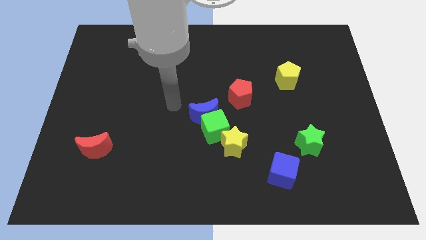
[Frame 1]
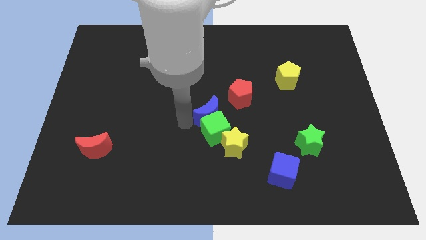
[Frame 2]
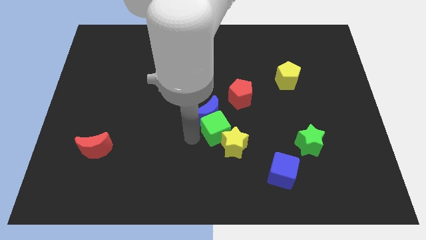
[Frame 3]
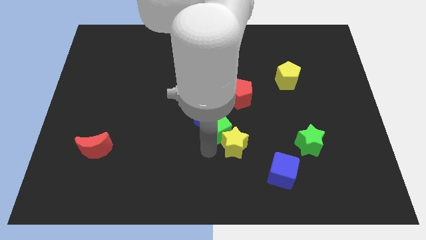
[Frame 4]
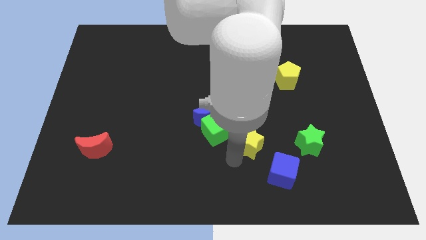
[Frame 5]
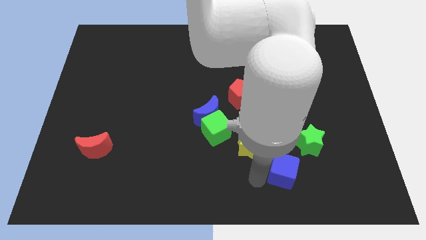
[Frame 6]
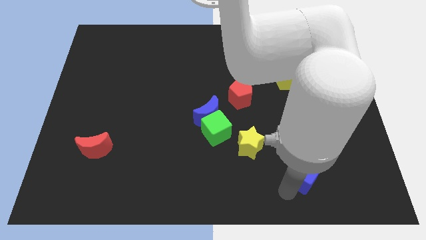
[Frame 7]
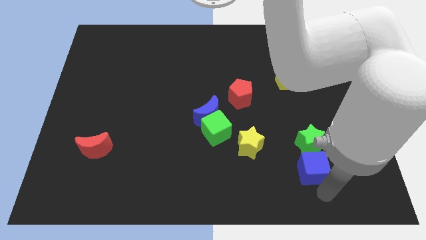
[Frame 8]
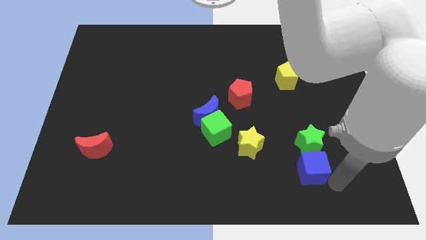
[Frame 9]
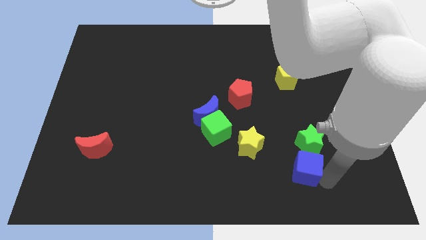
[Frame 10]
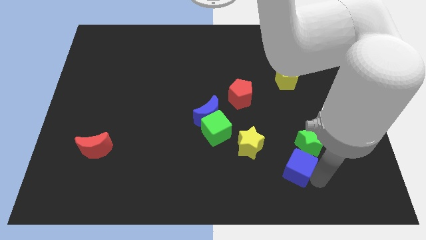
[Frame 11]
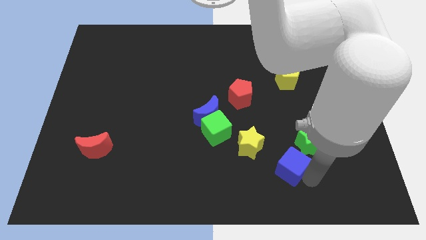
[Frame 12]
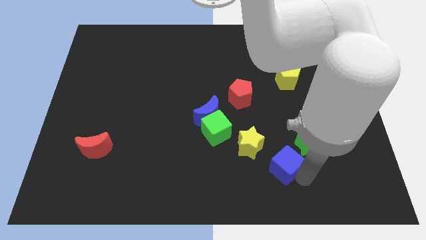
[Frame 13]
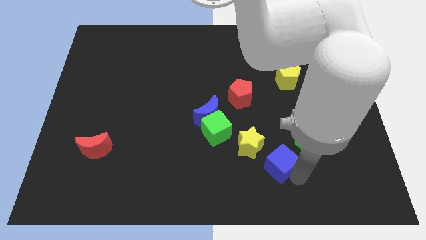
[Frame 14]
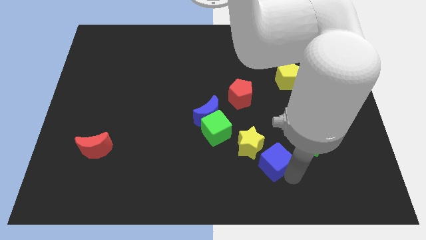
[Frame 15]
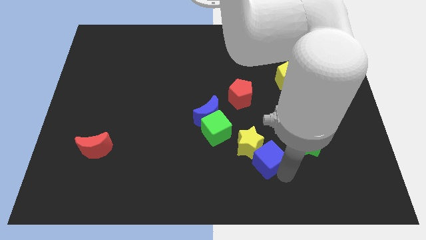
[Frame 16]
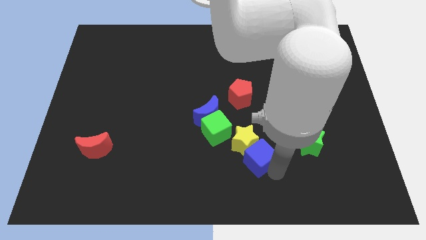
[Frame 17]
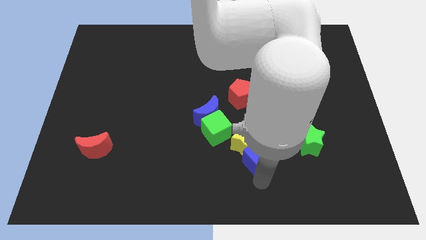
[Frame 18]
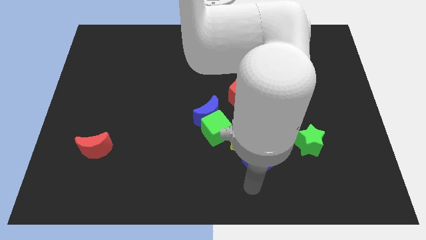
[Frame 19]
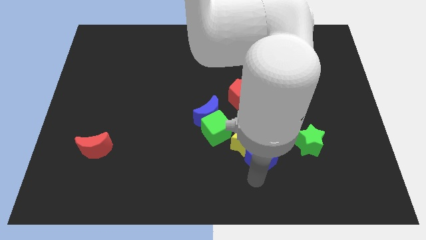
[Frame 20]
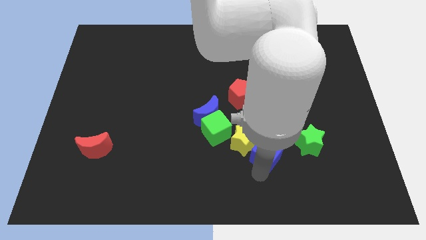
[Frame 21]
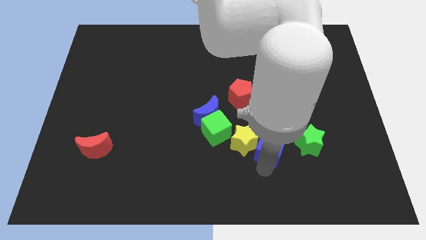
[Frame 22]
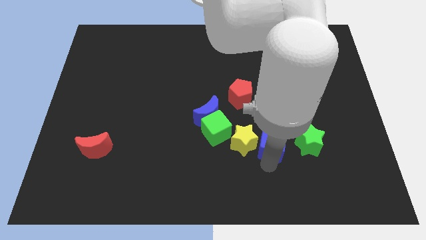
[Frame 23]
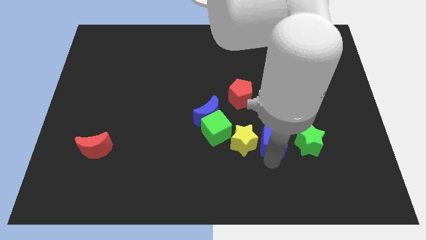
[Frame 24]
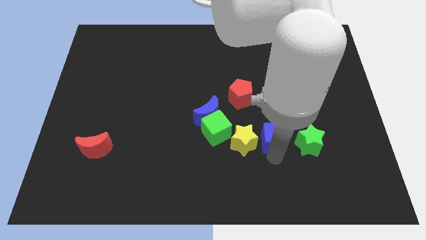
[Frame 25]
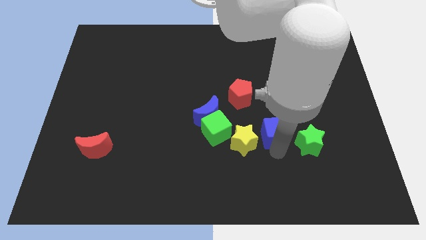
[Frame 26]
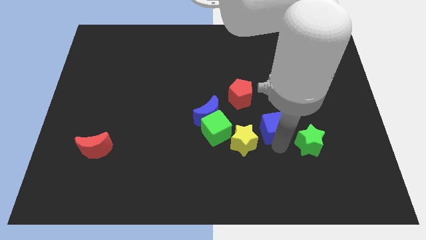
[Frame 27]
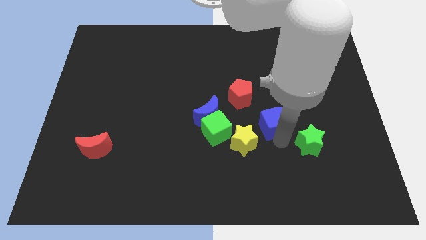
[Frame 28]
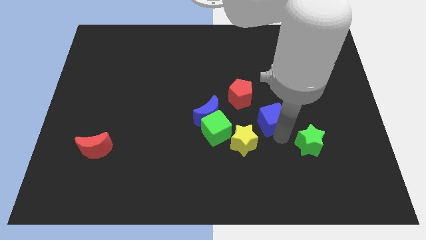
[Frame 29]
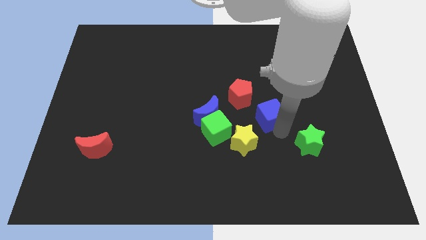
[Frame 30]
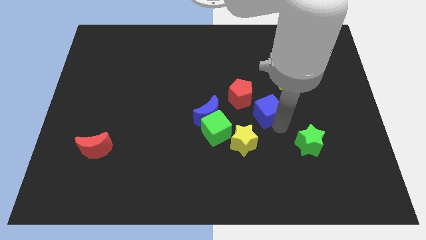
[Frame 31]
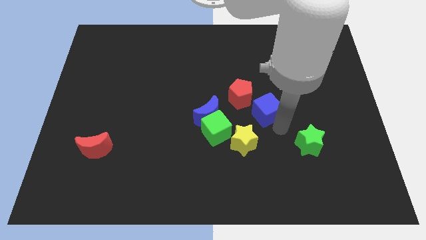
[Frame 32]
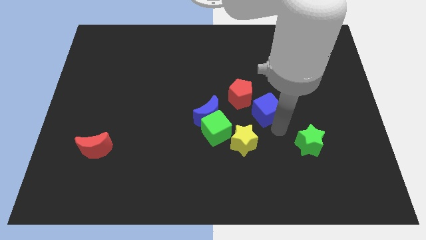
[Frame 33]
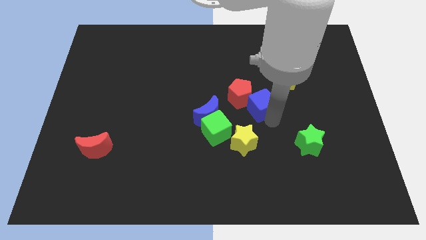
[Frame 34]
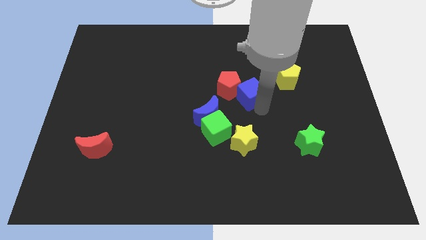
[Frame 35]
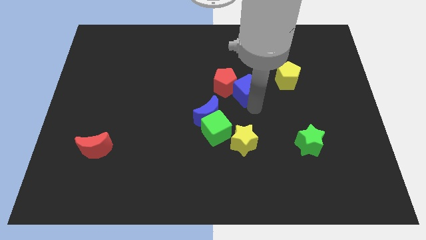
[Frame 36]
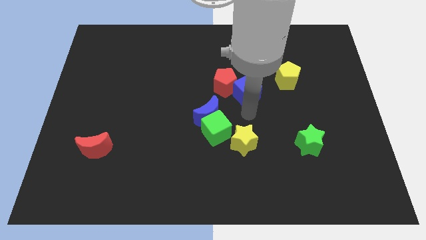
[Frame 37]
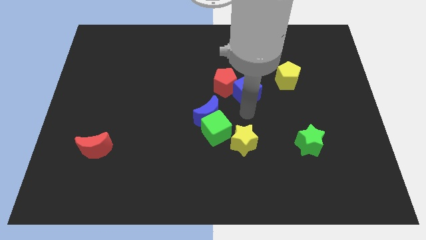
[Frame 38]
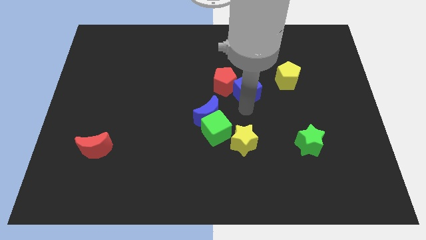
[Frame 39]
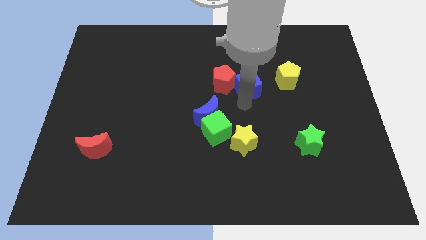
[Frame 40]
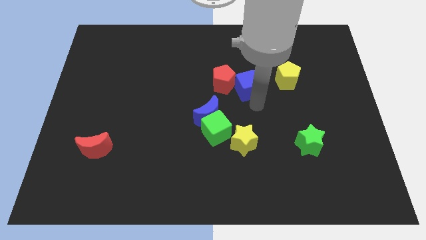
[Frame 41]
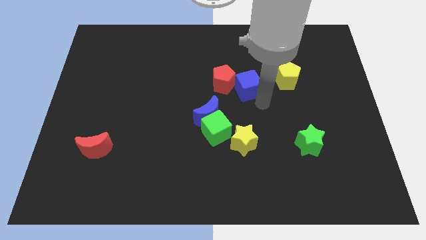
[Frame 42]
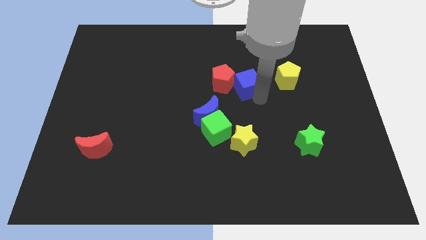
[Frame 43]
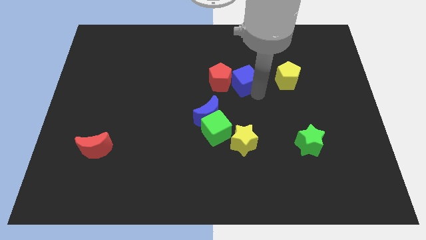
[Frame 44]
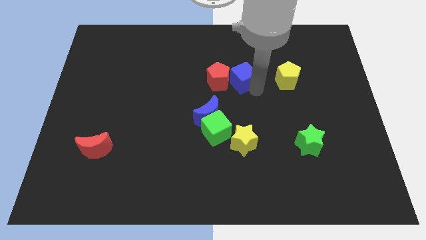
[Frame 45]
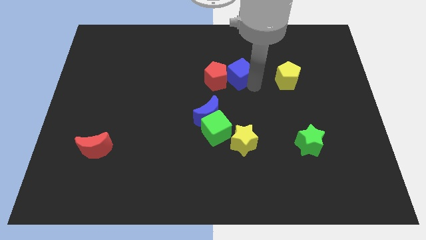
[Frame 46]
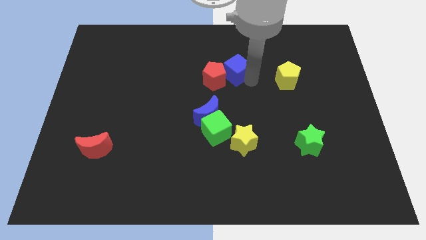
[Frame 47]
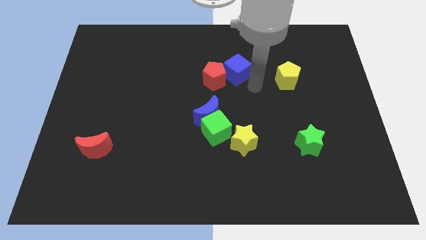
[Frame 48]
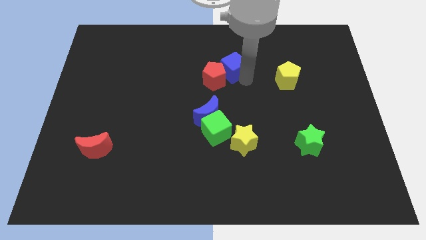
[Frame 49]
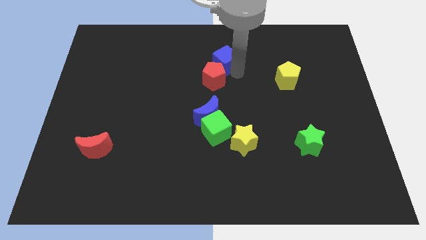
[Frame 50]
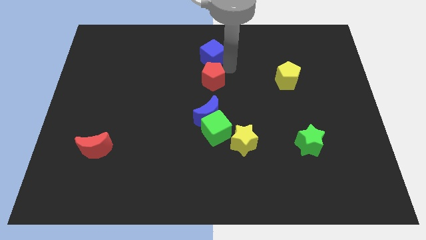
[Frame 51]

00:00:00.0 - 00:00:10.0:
slide the blue cube to the towards your base

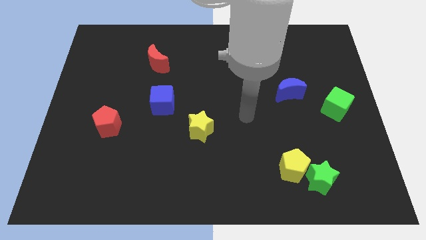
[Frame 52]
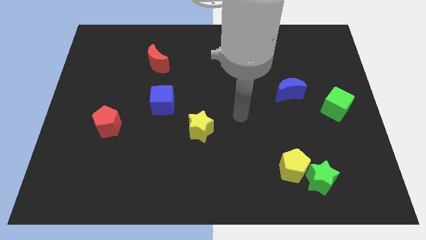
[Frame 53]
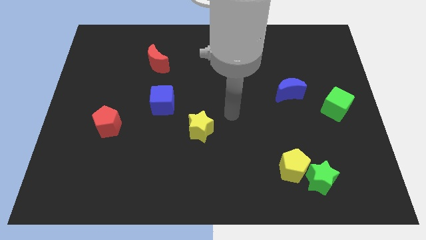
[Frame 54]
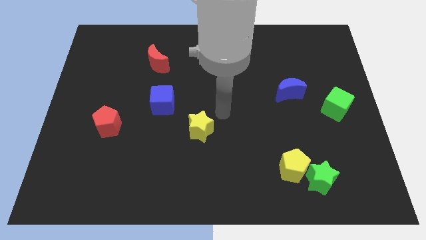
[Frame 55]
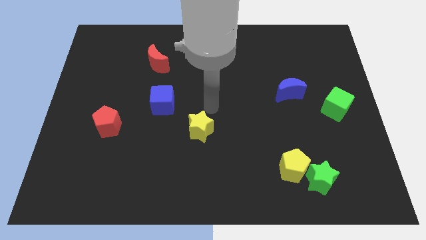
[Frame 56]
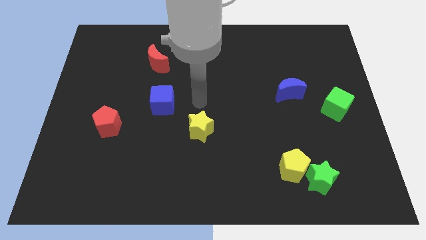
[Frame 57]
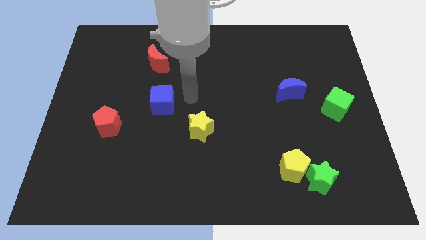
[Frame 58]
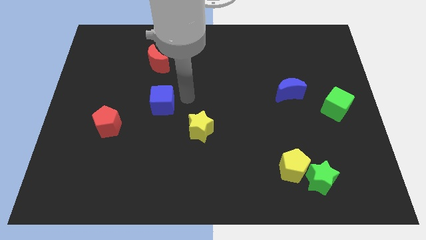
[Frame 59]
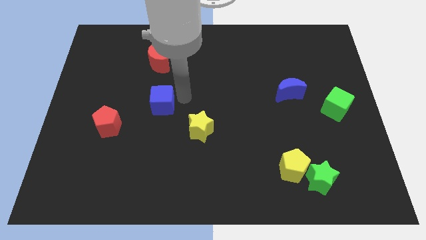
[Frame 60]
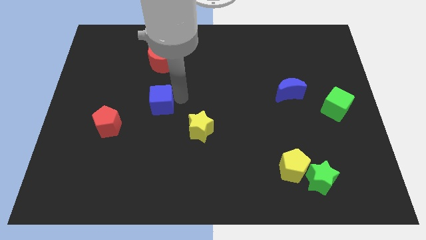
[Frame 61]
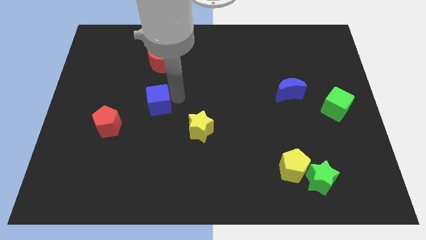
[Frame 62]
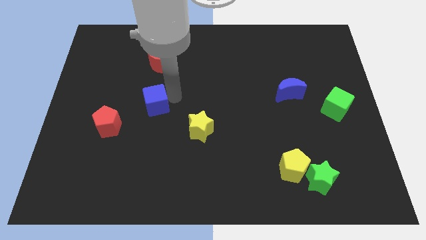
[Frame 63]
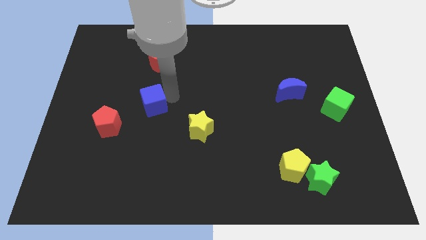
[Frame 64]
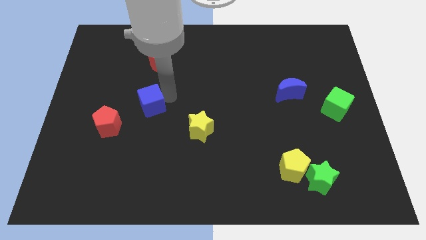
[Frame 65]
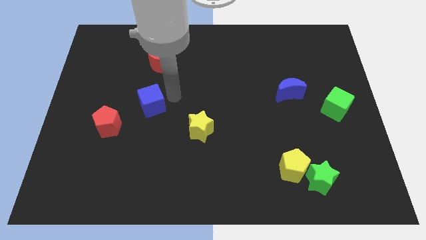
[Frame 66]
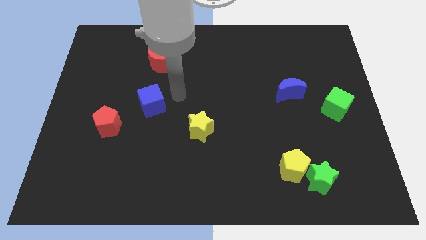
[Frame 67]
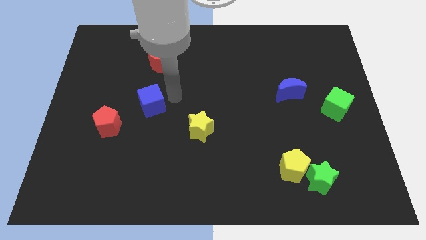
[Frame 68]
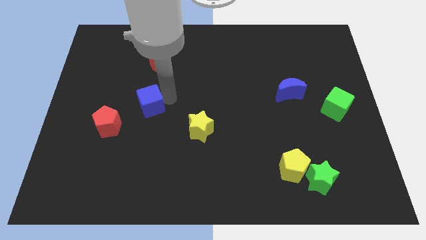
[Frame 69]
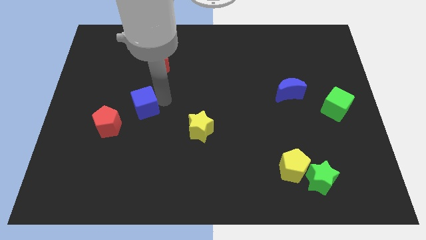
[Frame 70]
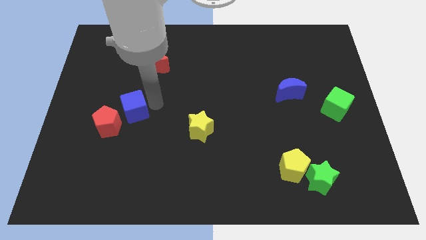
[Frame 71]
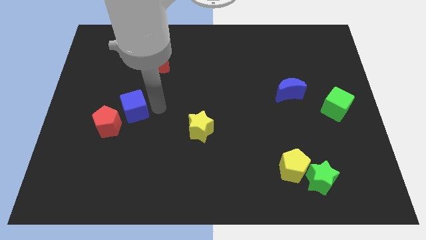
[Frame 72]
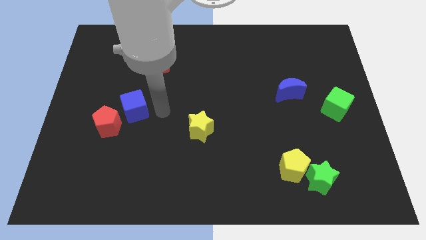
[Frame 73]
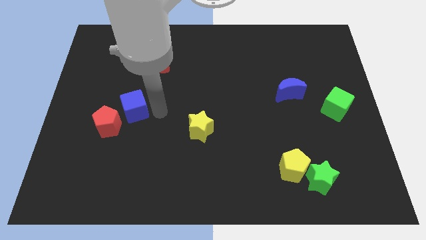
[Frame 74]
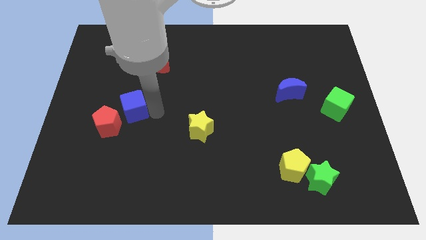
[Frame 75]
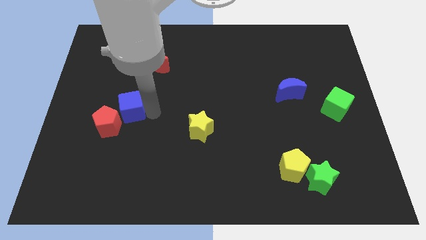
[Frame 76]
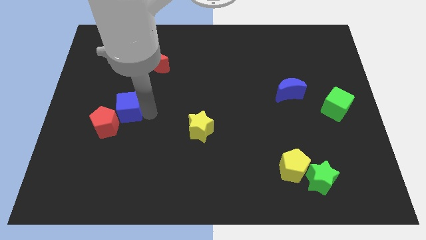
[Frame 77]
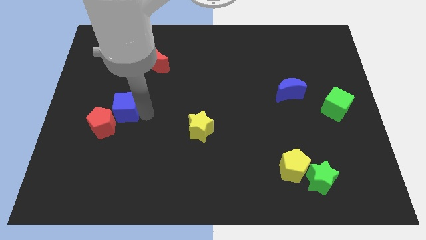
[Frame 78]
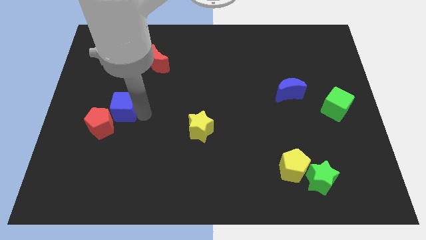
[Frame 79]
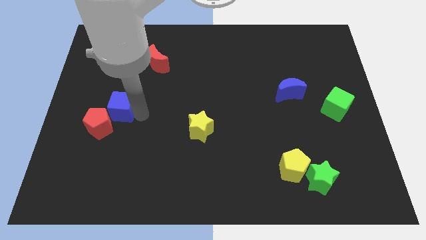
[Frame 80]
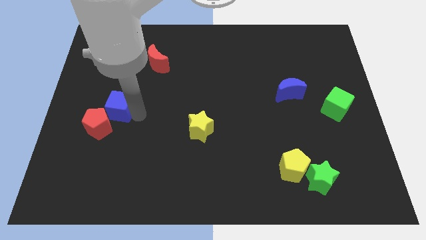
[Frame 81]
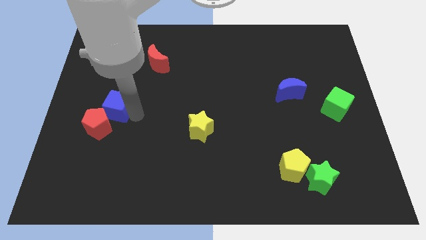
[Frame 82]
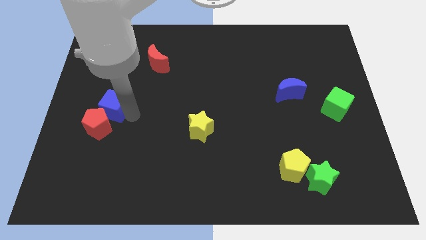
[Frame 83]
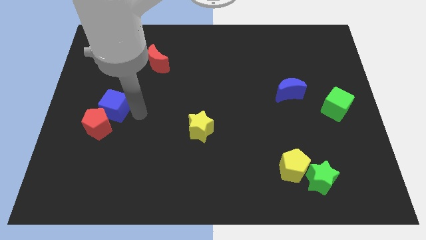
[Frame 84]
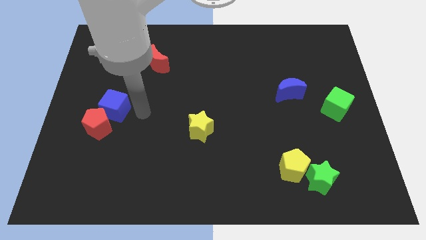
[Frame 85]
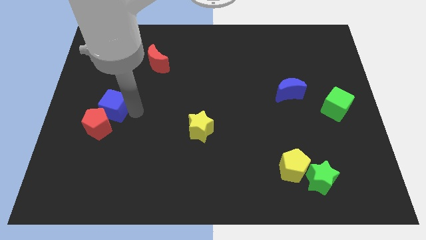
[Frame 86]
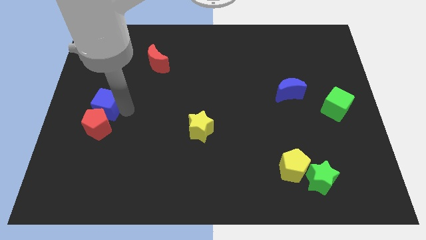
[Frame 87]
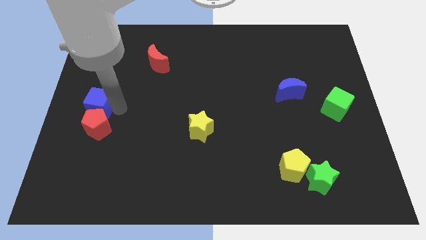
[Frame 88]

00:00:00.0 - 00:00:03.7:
put the blue cube to the left side
